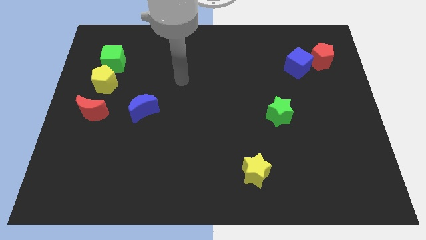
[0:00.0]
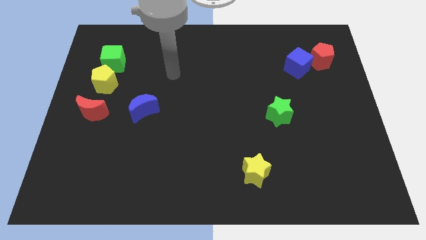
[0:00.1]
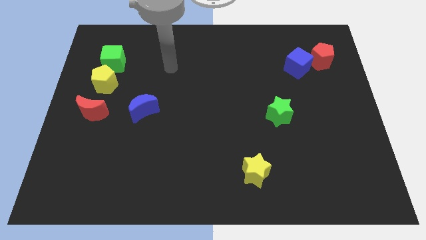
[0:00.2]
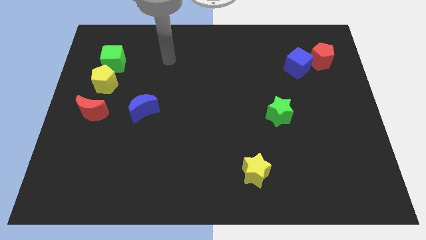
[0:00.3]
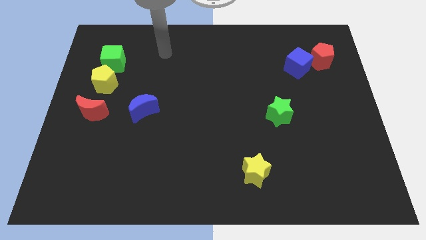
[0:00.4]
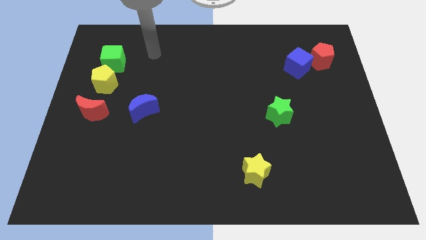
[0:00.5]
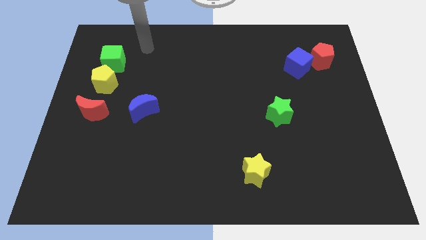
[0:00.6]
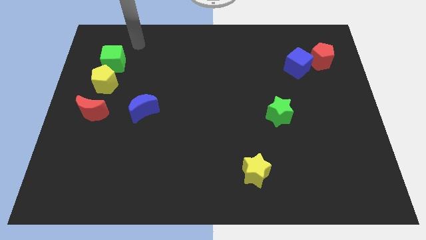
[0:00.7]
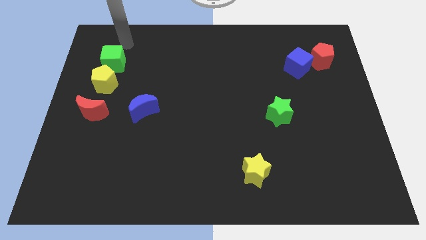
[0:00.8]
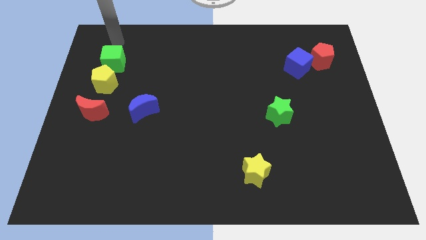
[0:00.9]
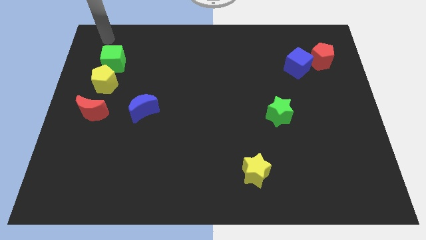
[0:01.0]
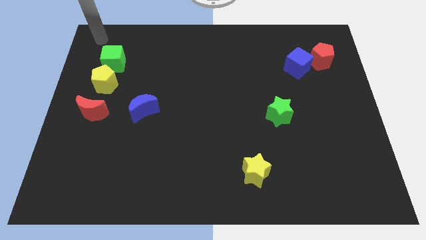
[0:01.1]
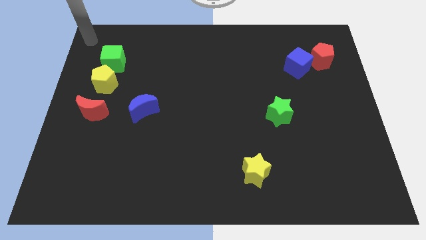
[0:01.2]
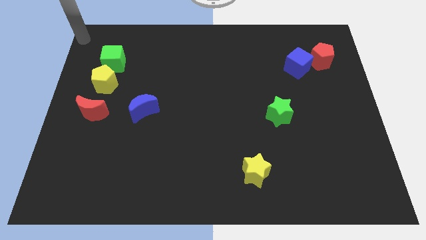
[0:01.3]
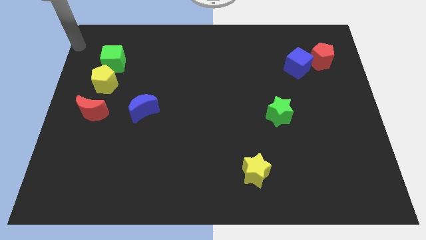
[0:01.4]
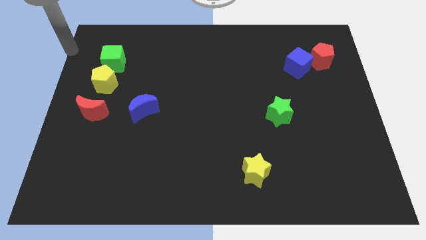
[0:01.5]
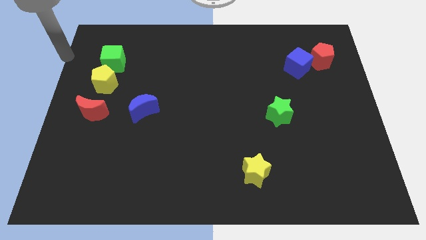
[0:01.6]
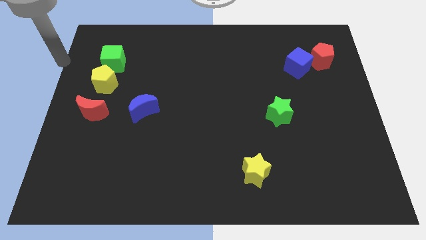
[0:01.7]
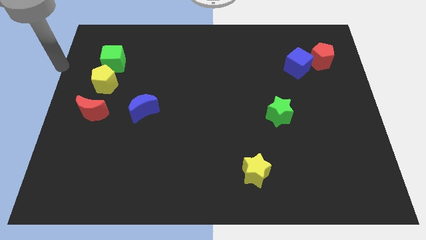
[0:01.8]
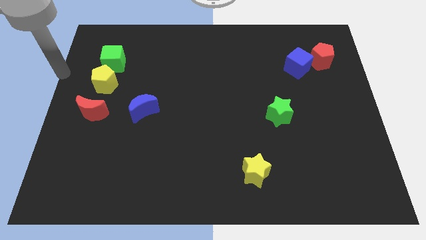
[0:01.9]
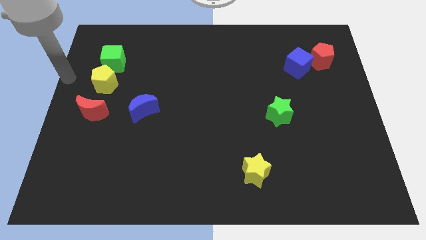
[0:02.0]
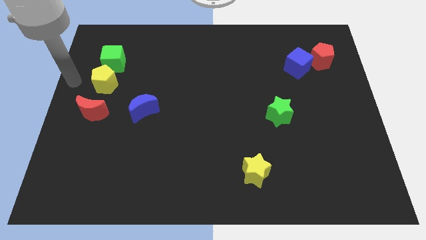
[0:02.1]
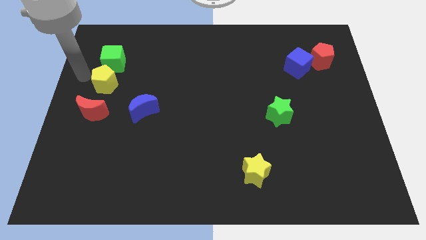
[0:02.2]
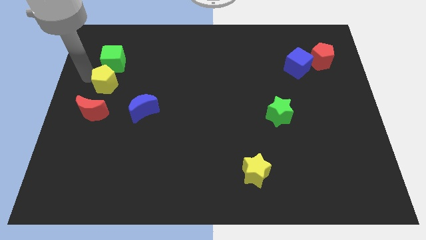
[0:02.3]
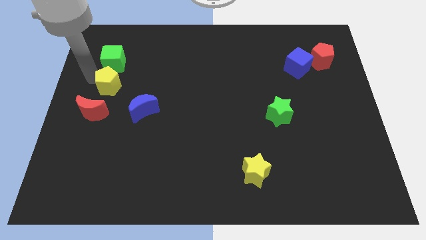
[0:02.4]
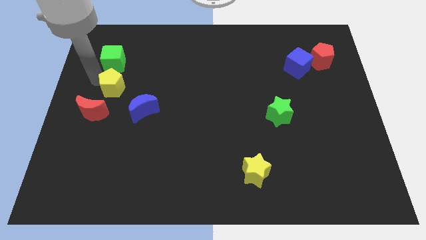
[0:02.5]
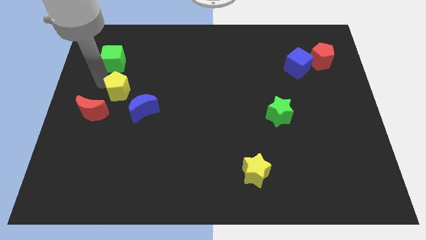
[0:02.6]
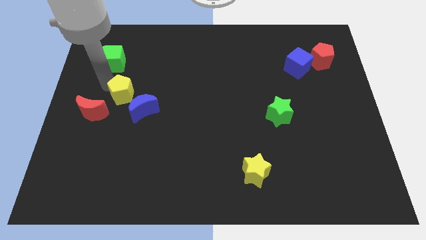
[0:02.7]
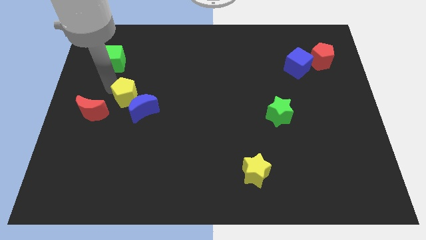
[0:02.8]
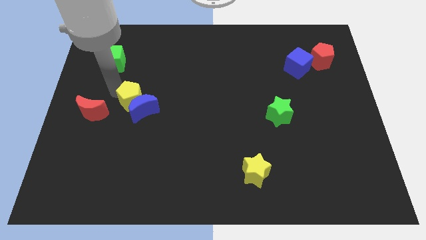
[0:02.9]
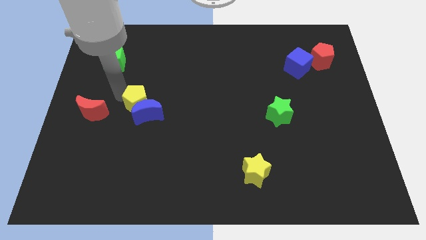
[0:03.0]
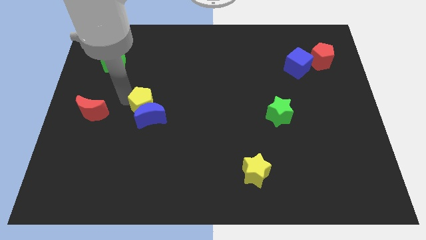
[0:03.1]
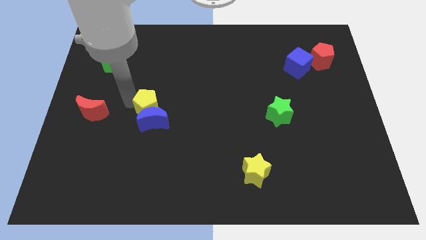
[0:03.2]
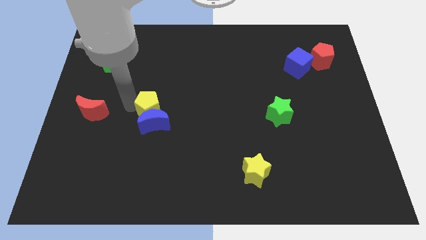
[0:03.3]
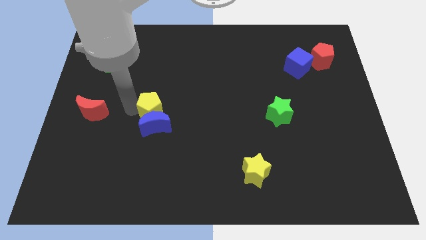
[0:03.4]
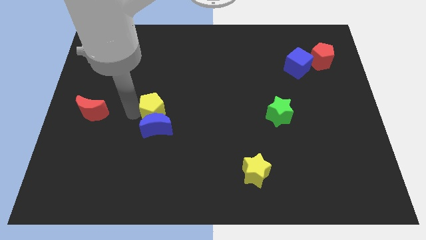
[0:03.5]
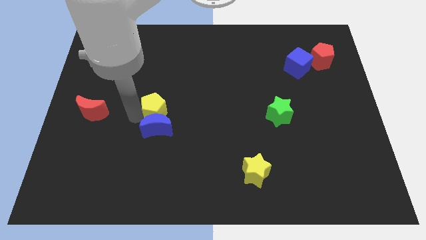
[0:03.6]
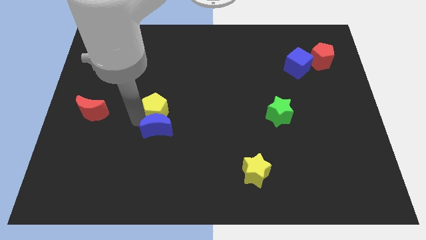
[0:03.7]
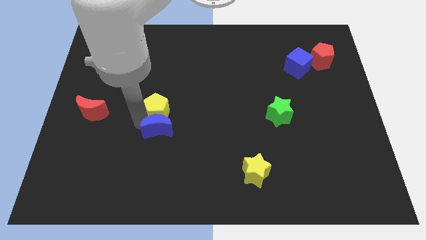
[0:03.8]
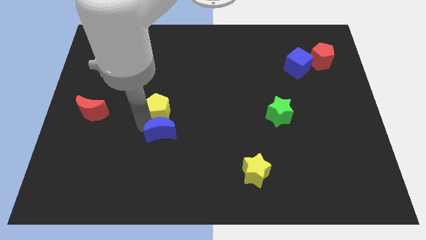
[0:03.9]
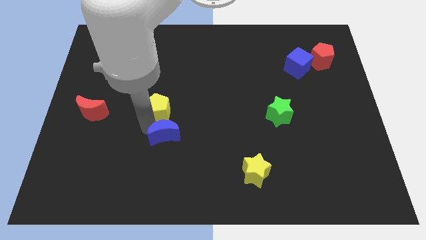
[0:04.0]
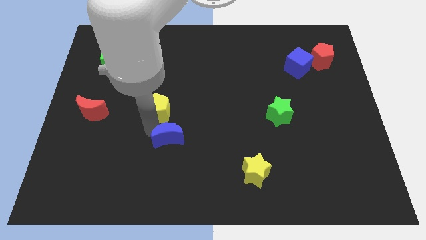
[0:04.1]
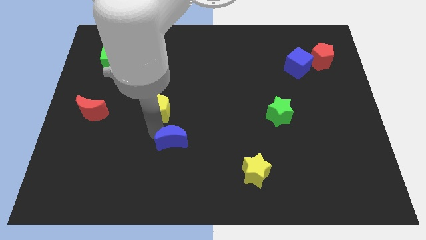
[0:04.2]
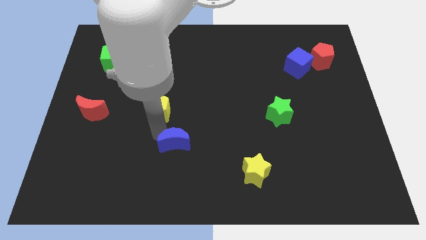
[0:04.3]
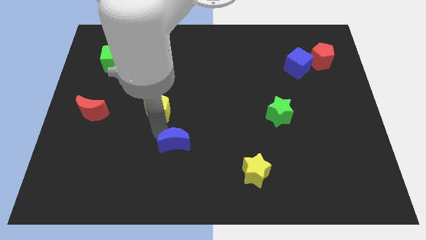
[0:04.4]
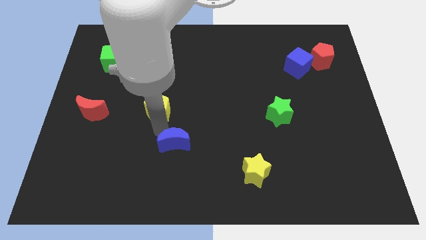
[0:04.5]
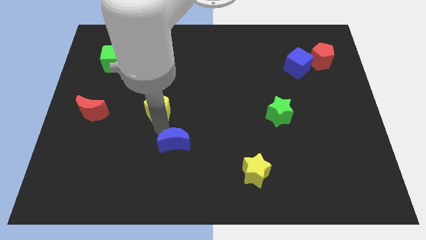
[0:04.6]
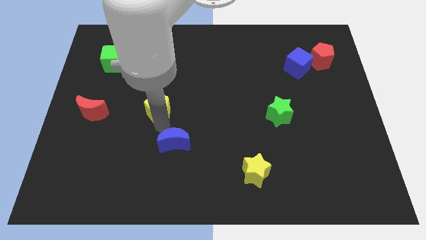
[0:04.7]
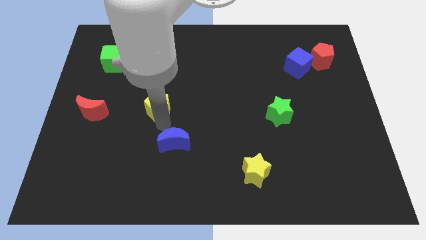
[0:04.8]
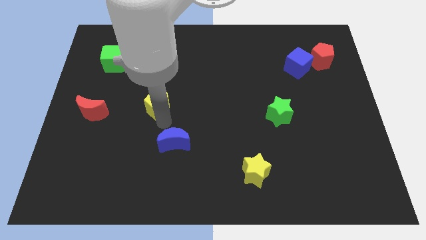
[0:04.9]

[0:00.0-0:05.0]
push the yellow pentagon to the center

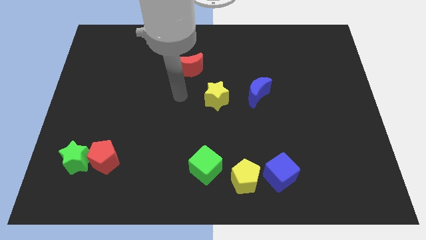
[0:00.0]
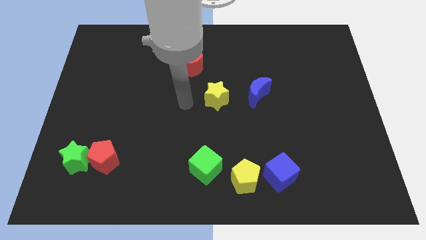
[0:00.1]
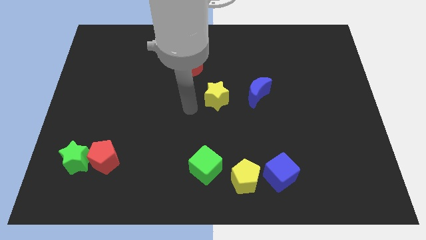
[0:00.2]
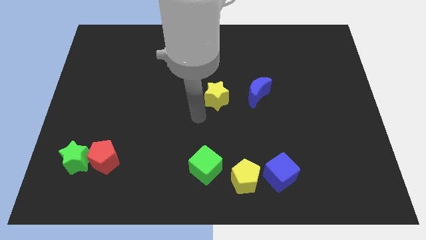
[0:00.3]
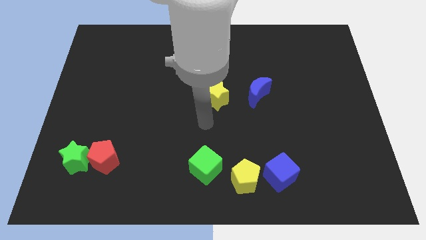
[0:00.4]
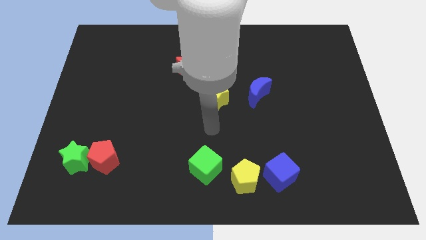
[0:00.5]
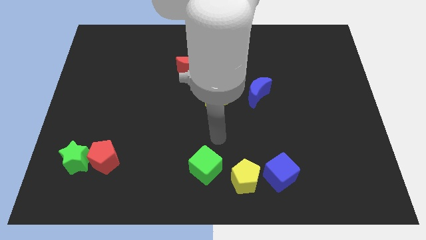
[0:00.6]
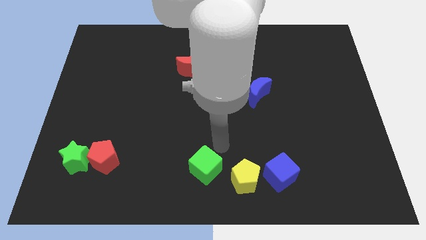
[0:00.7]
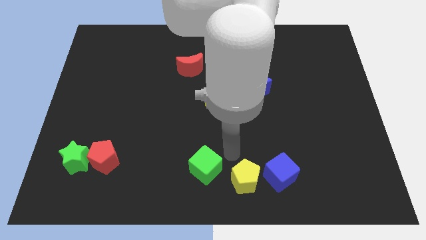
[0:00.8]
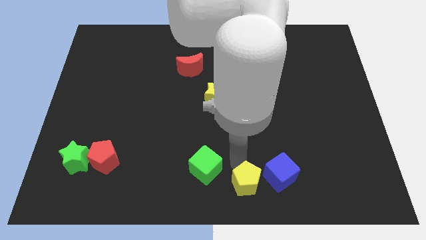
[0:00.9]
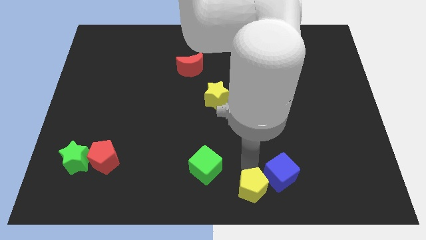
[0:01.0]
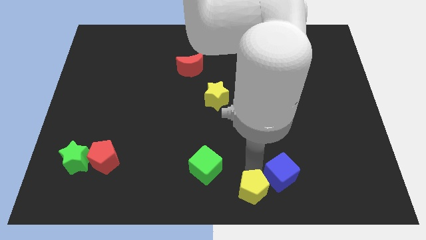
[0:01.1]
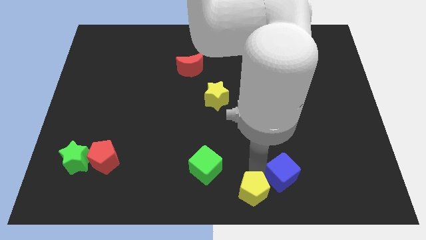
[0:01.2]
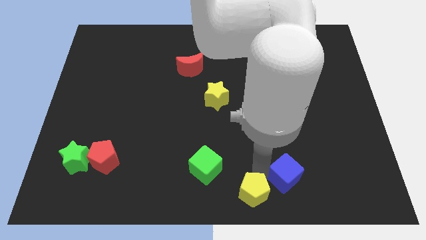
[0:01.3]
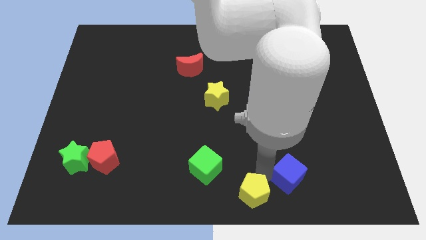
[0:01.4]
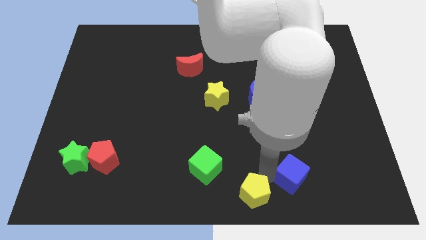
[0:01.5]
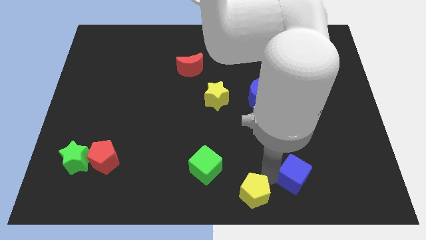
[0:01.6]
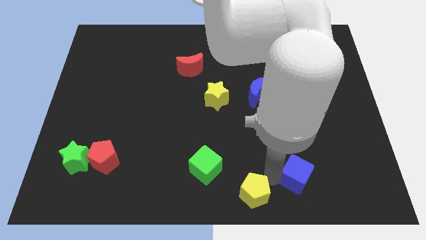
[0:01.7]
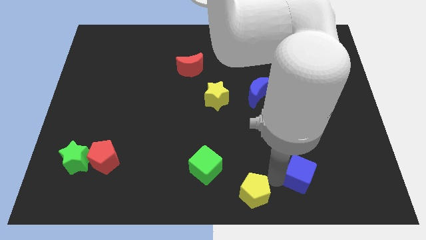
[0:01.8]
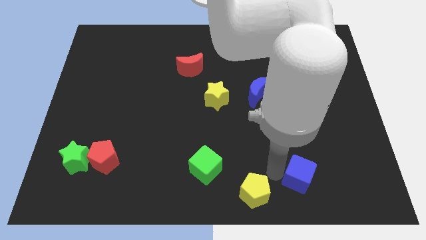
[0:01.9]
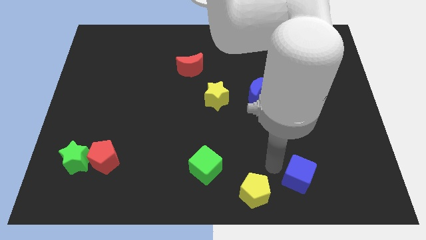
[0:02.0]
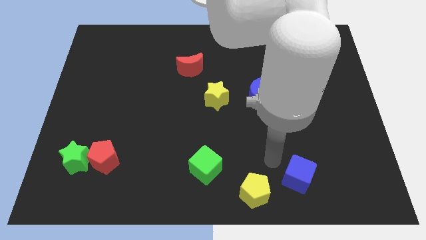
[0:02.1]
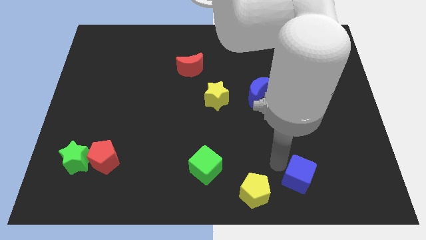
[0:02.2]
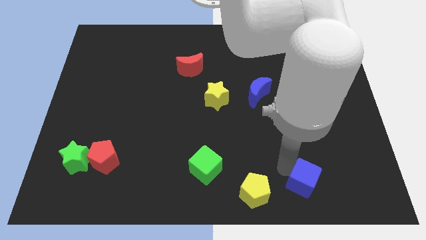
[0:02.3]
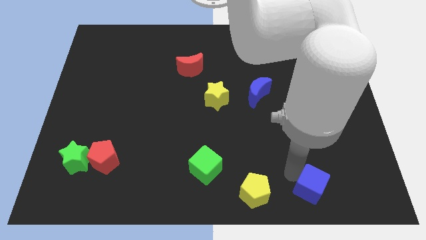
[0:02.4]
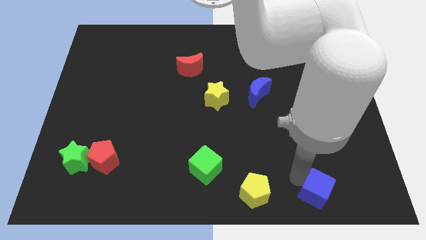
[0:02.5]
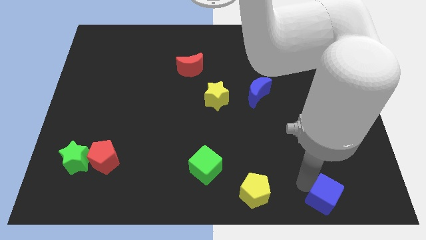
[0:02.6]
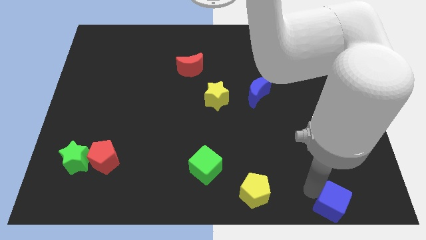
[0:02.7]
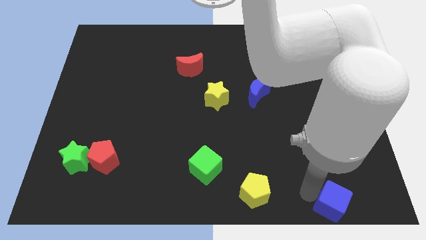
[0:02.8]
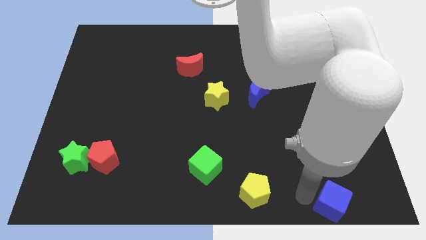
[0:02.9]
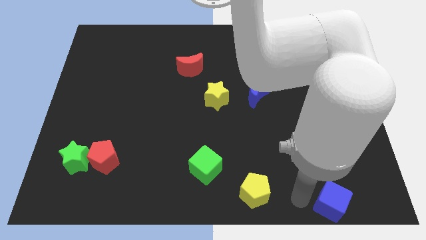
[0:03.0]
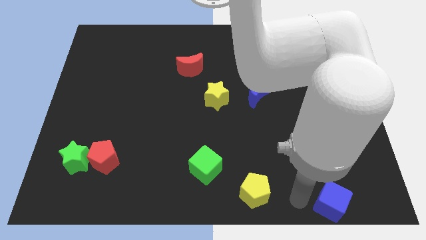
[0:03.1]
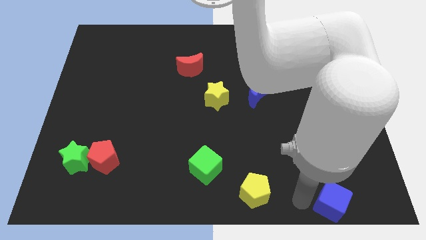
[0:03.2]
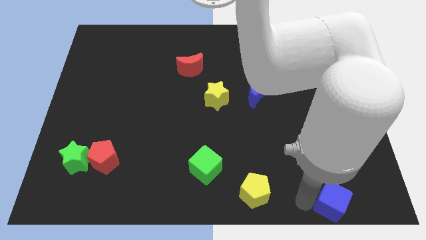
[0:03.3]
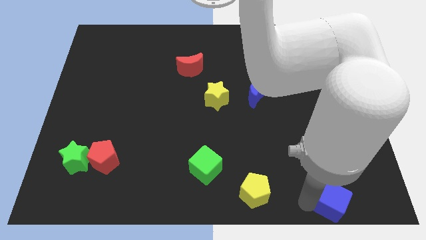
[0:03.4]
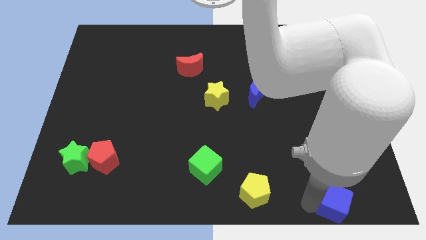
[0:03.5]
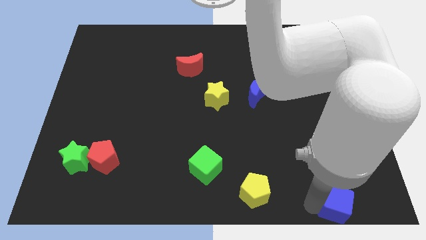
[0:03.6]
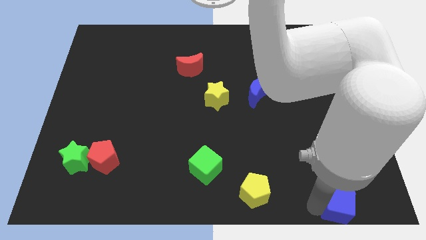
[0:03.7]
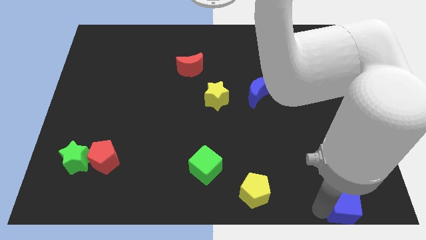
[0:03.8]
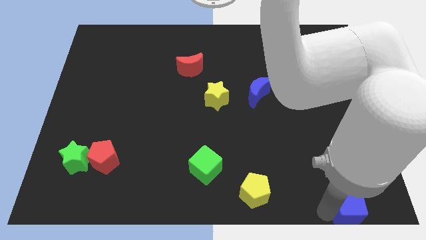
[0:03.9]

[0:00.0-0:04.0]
move the blue cube to the lower right corner
